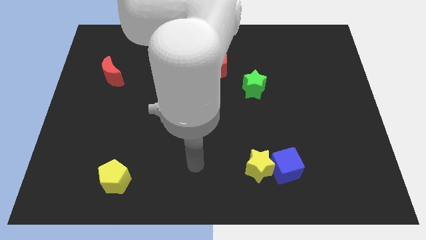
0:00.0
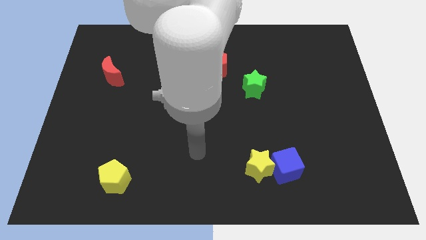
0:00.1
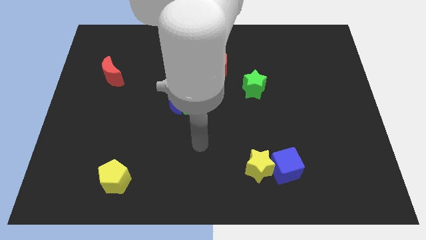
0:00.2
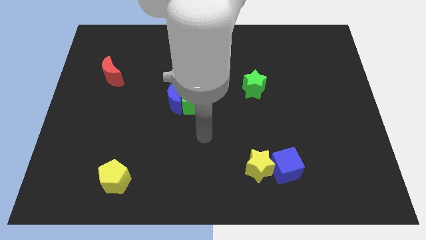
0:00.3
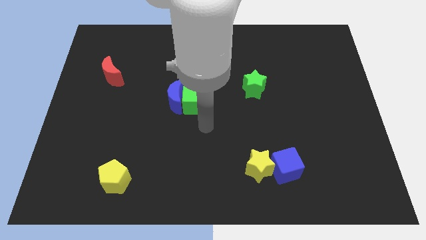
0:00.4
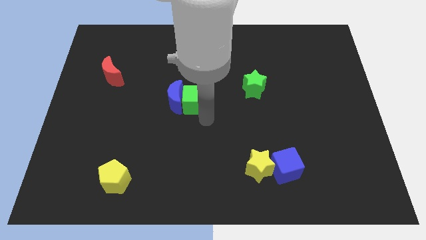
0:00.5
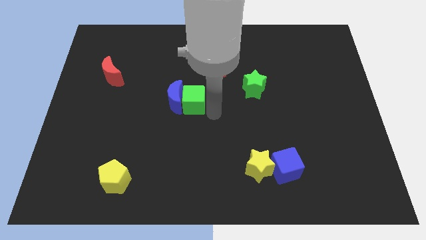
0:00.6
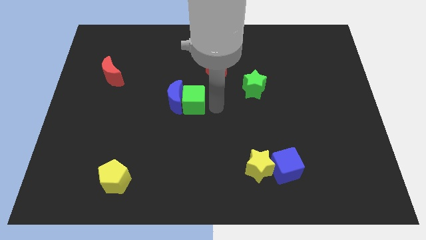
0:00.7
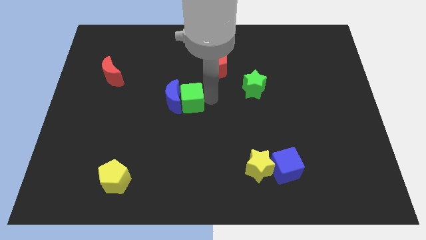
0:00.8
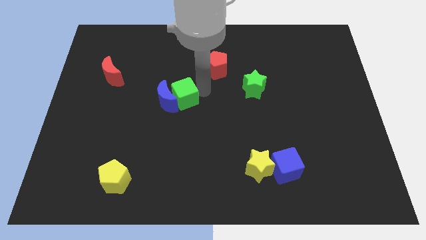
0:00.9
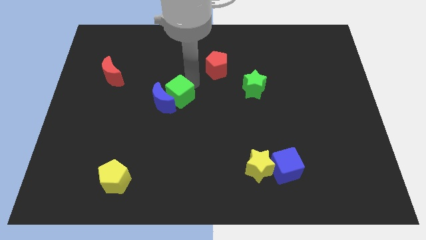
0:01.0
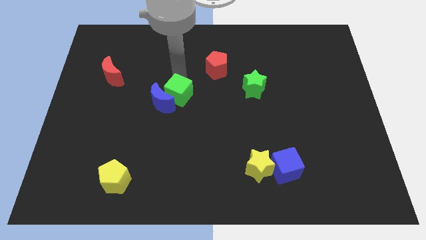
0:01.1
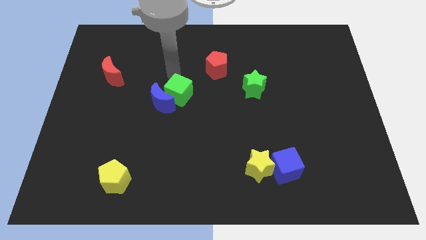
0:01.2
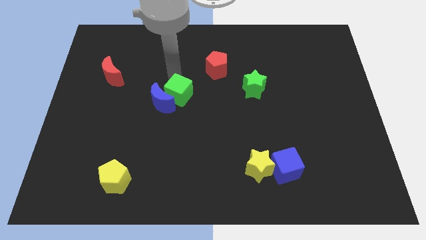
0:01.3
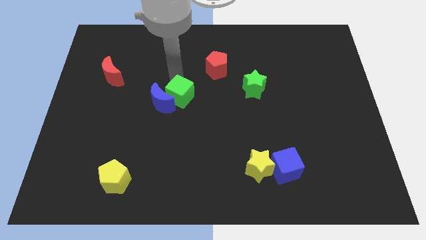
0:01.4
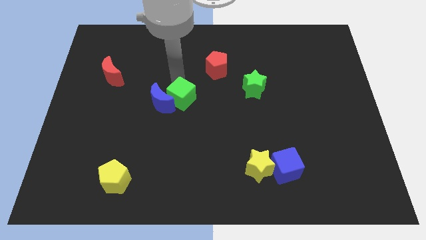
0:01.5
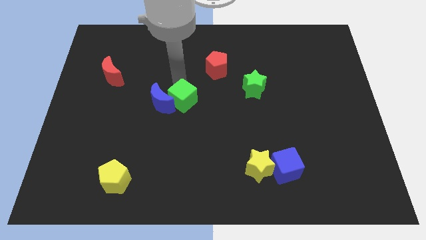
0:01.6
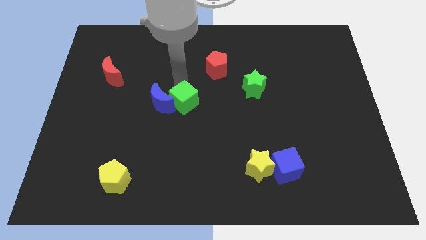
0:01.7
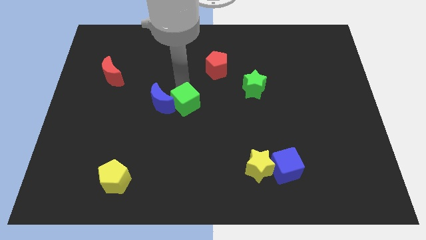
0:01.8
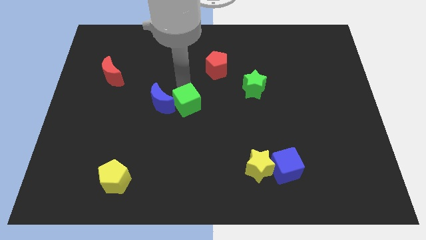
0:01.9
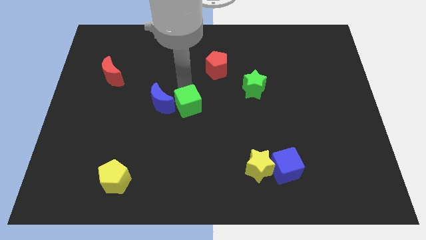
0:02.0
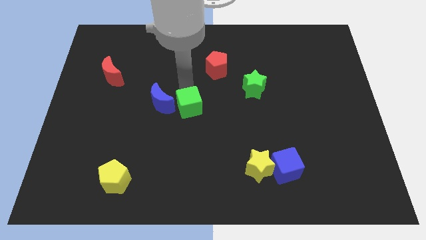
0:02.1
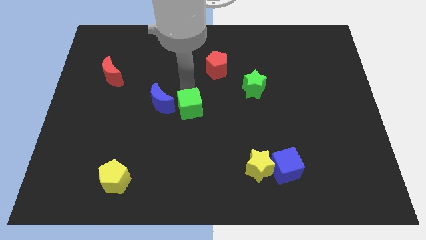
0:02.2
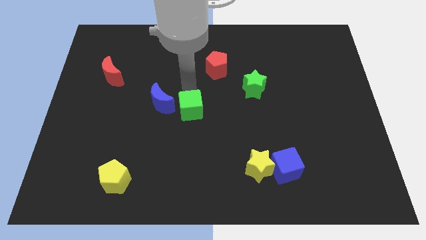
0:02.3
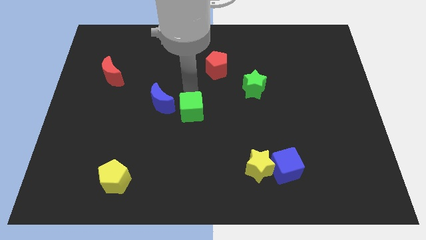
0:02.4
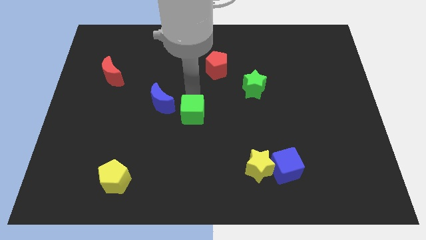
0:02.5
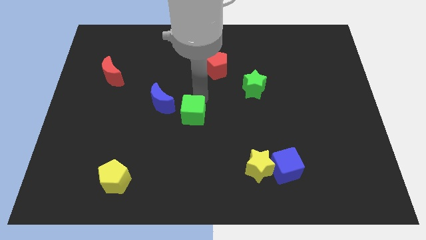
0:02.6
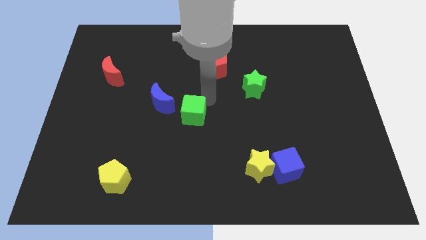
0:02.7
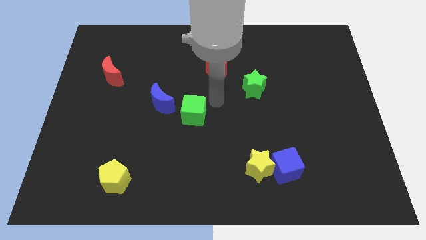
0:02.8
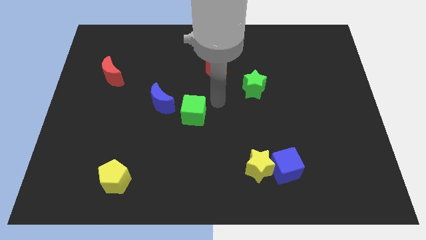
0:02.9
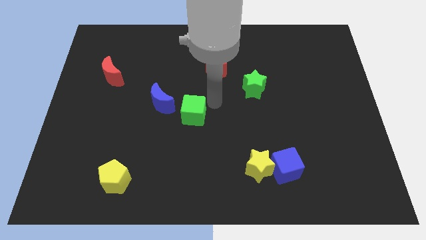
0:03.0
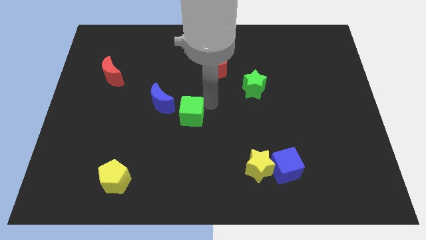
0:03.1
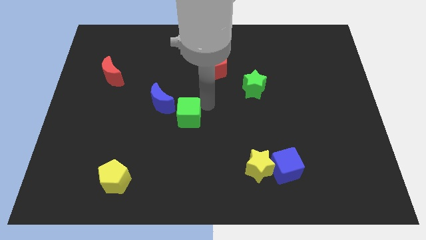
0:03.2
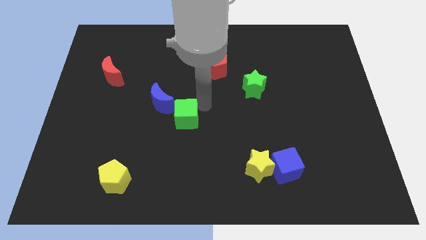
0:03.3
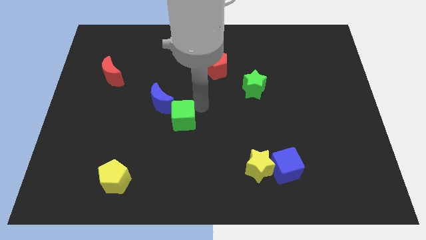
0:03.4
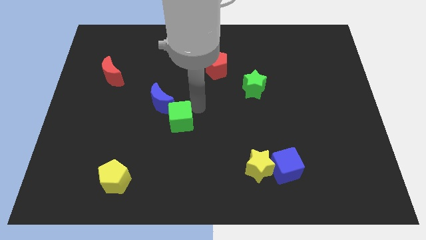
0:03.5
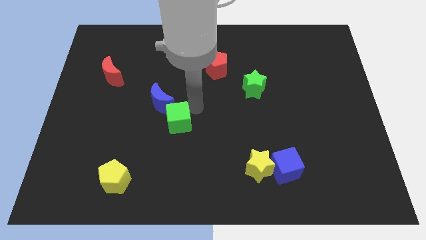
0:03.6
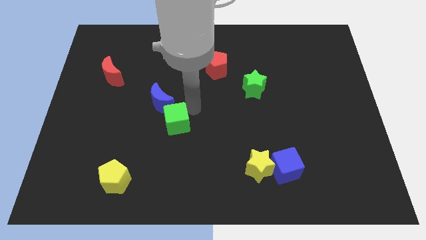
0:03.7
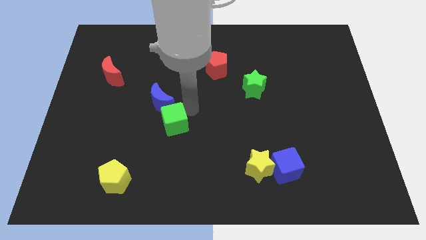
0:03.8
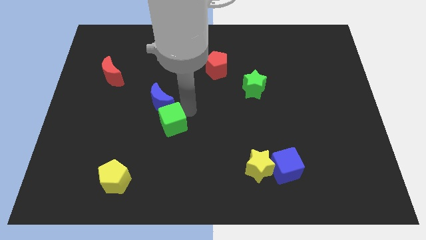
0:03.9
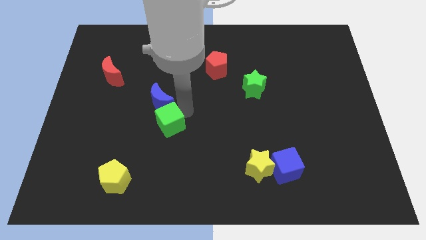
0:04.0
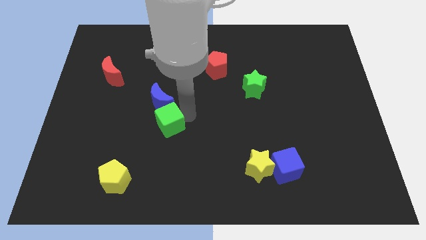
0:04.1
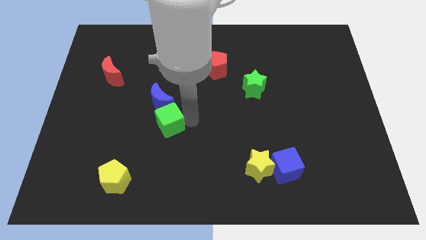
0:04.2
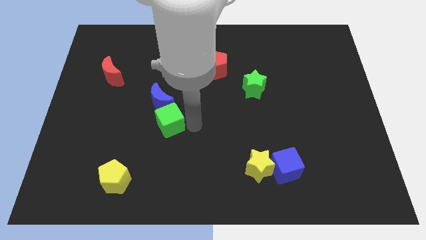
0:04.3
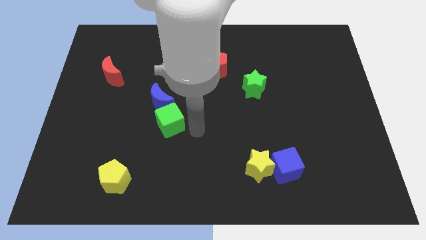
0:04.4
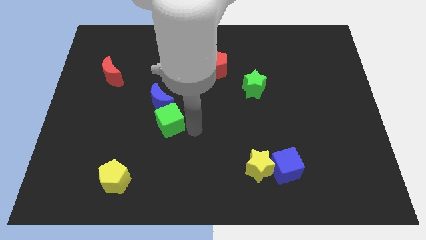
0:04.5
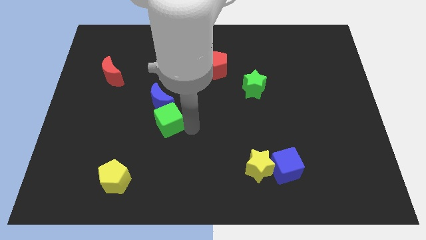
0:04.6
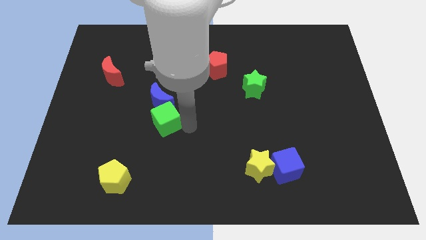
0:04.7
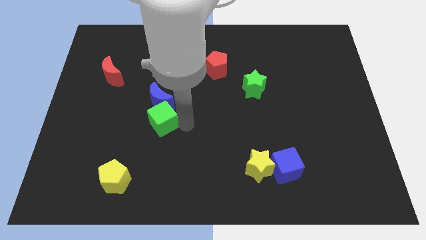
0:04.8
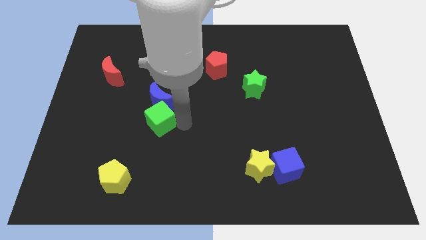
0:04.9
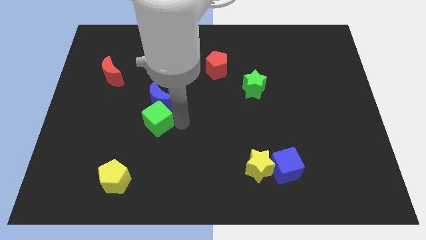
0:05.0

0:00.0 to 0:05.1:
push the green cube to the left a little

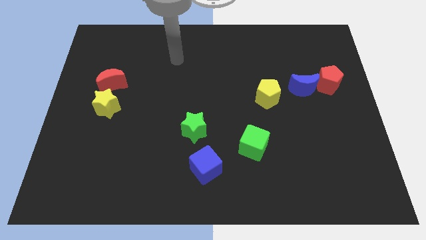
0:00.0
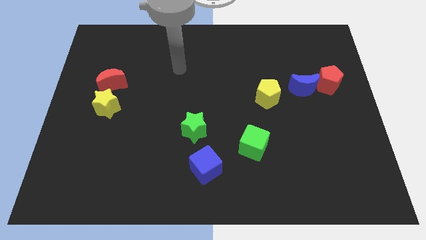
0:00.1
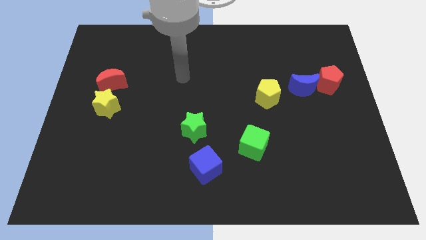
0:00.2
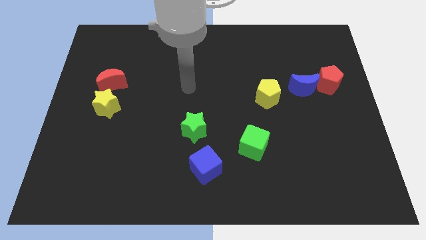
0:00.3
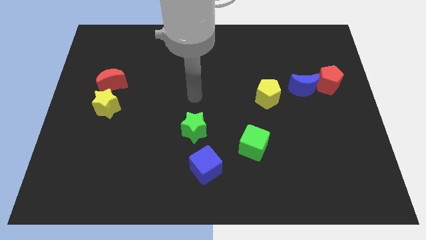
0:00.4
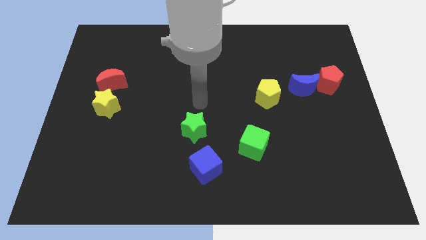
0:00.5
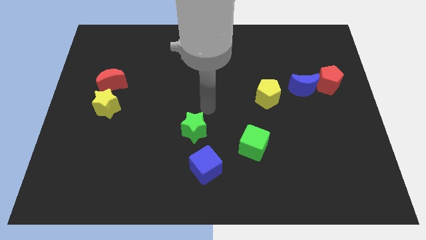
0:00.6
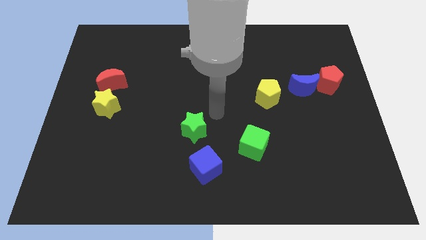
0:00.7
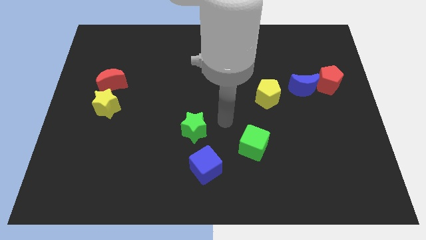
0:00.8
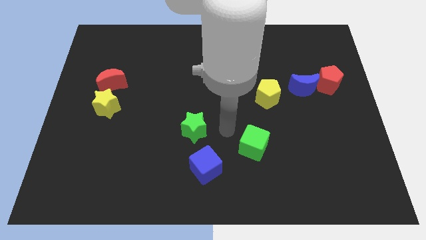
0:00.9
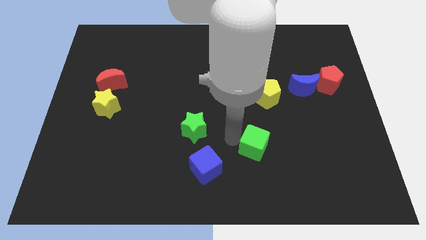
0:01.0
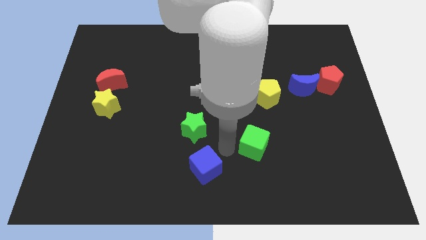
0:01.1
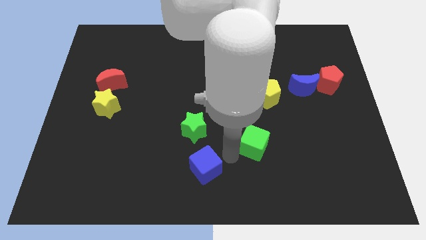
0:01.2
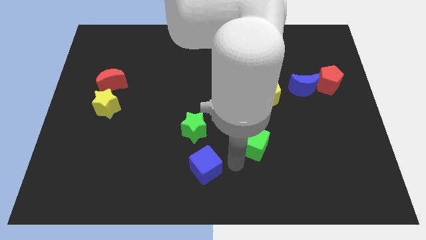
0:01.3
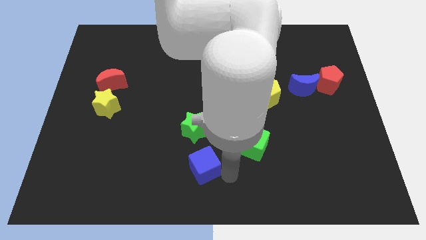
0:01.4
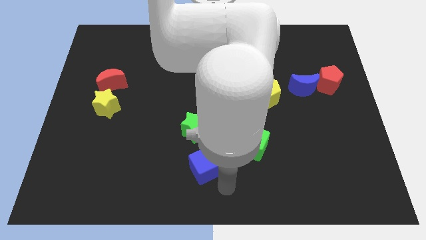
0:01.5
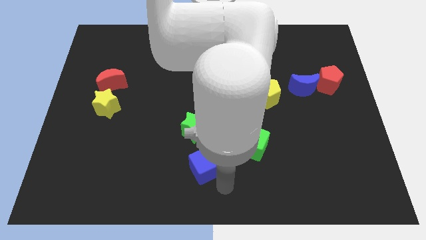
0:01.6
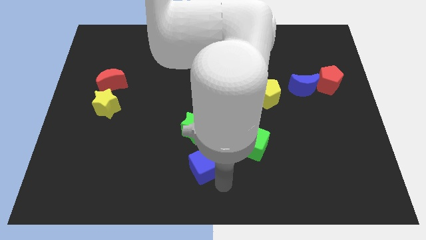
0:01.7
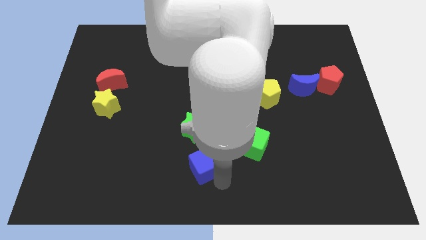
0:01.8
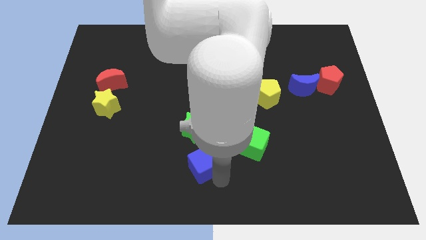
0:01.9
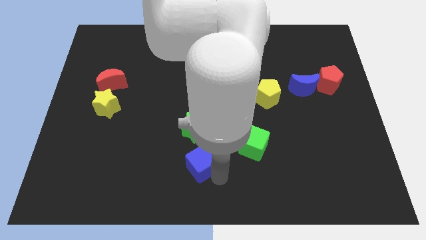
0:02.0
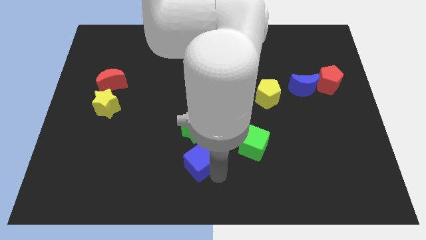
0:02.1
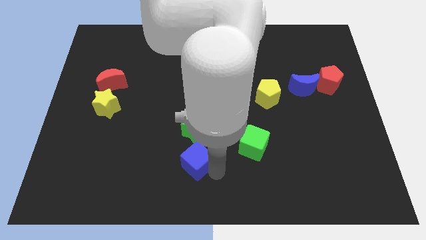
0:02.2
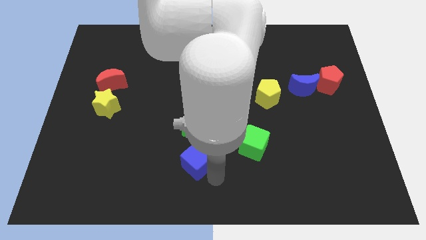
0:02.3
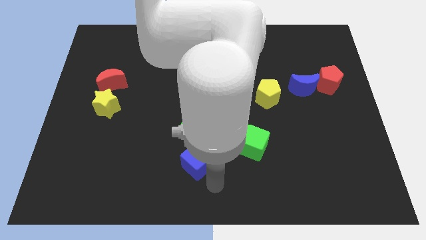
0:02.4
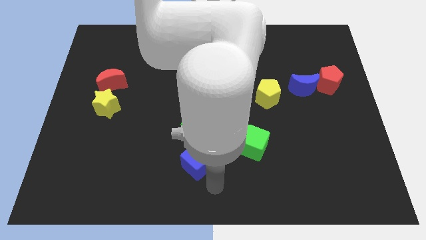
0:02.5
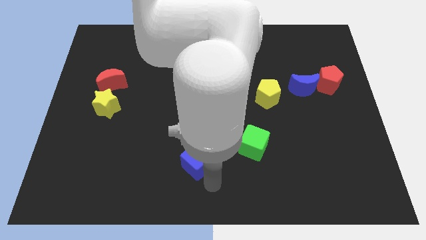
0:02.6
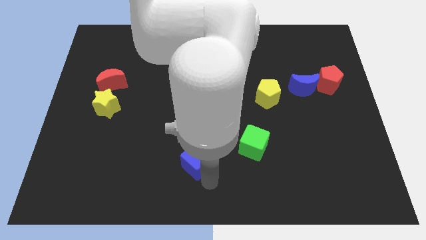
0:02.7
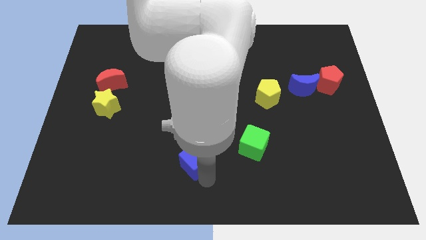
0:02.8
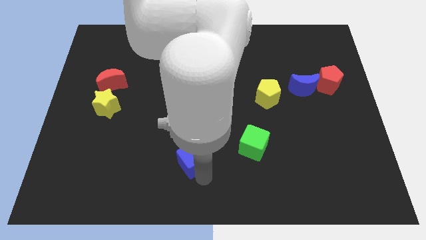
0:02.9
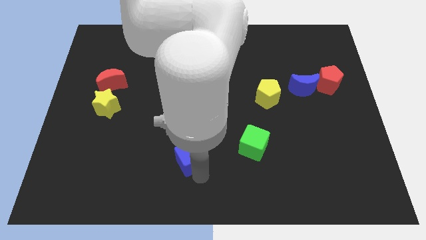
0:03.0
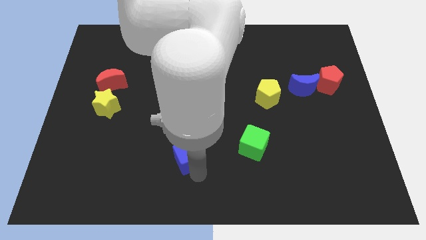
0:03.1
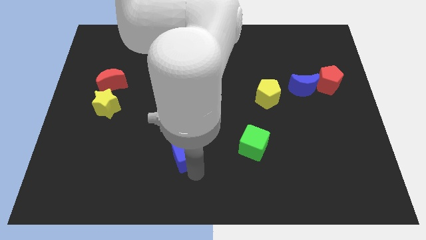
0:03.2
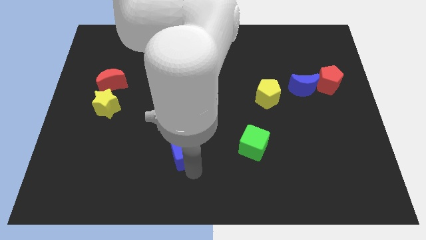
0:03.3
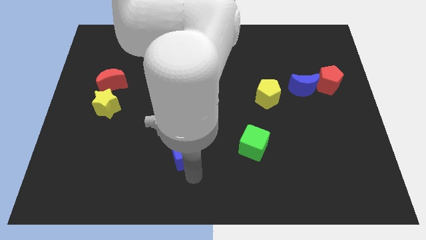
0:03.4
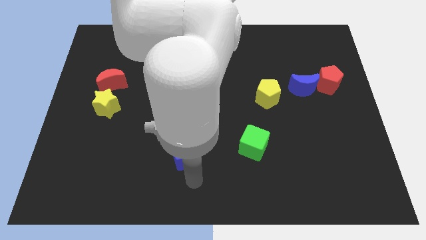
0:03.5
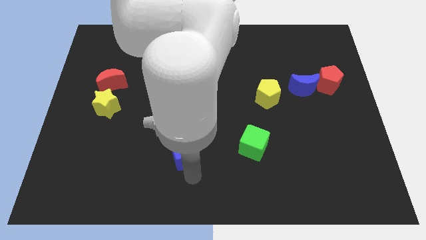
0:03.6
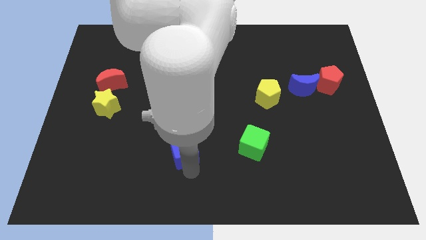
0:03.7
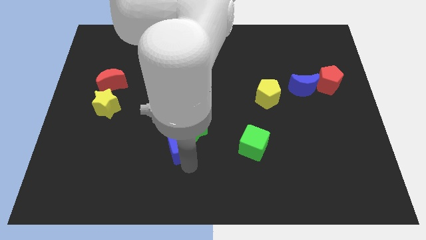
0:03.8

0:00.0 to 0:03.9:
push the blue cube upwards and then to the left a little
